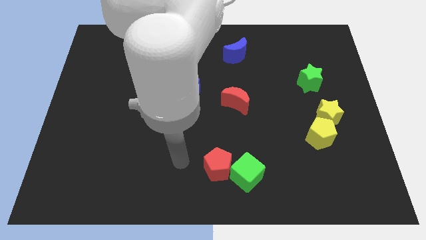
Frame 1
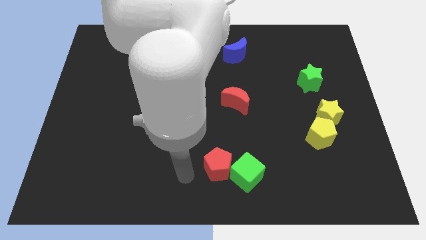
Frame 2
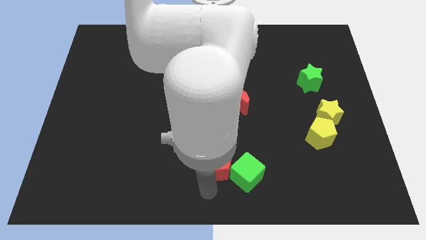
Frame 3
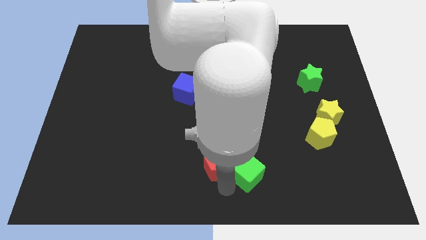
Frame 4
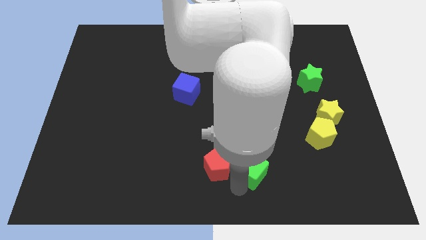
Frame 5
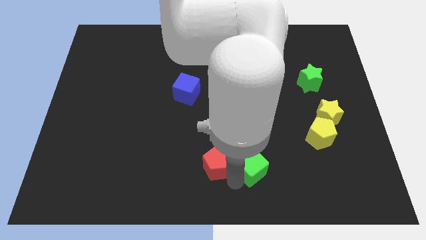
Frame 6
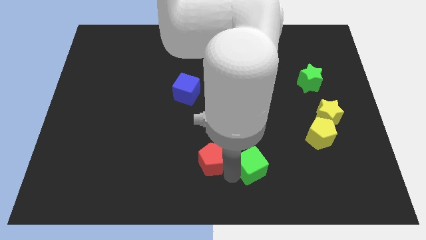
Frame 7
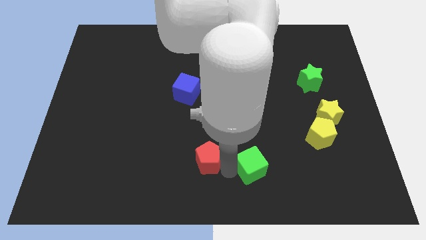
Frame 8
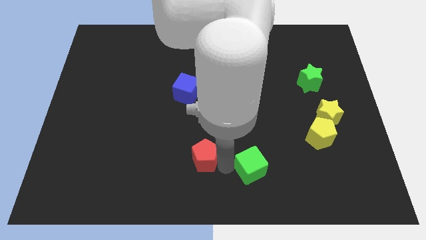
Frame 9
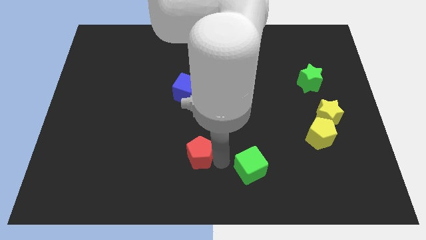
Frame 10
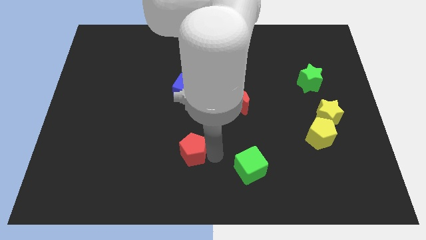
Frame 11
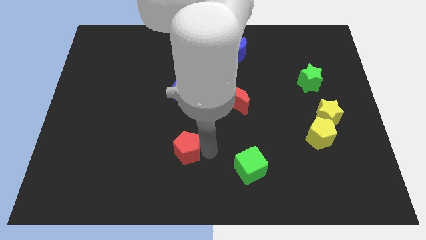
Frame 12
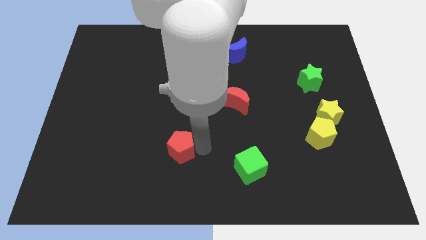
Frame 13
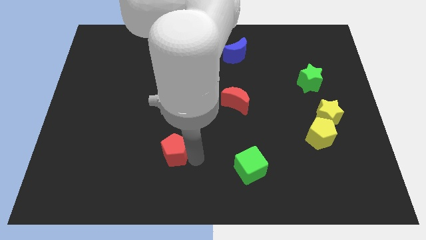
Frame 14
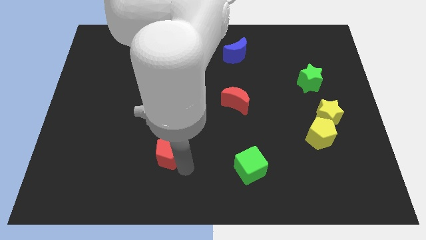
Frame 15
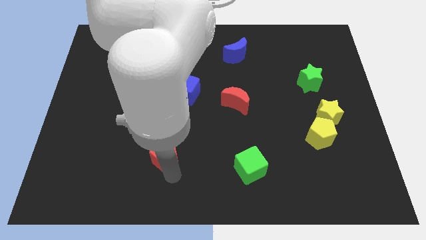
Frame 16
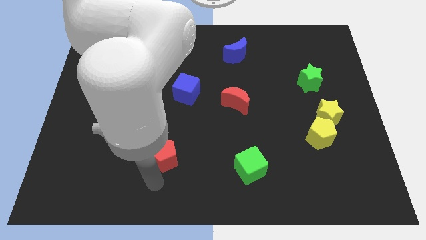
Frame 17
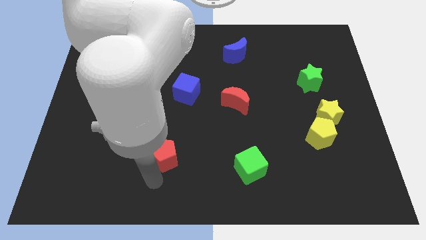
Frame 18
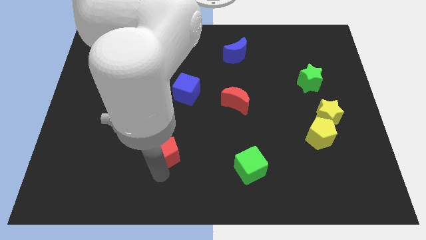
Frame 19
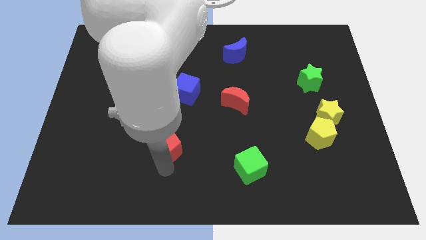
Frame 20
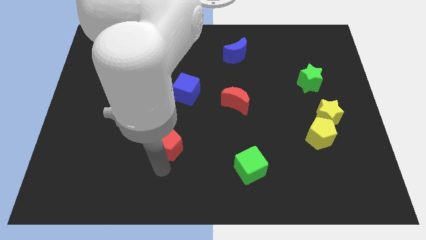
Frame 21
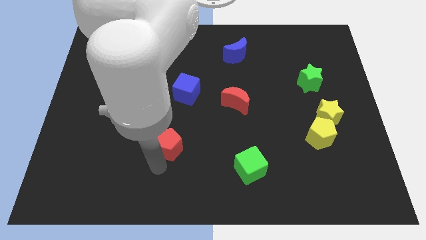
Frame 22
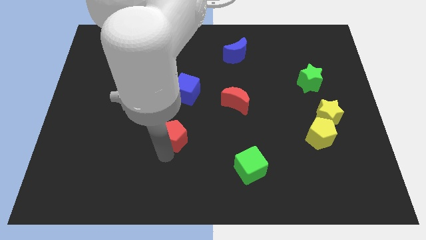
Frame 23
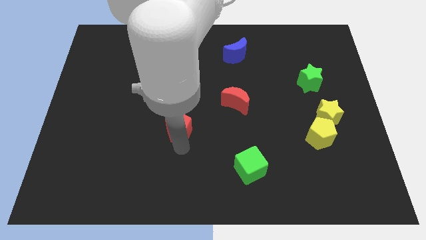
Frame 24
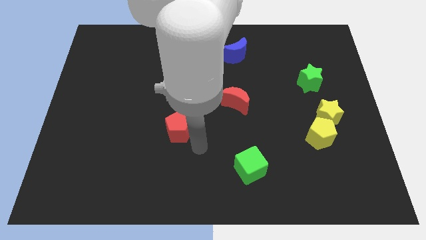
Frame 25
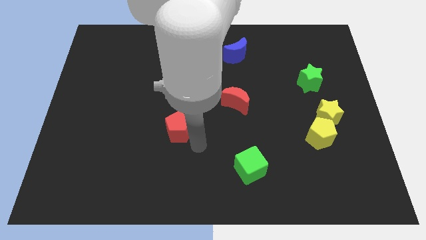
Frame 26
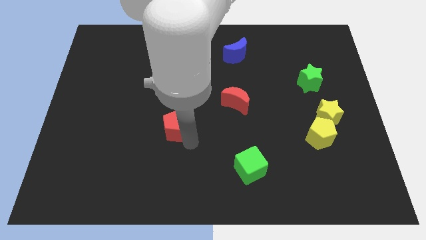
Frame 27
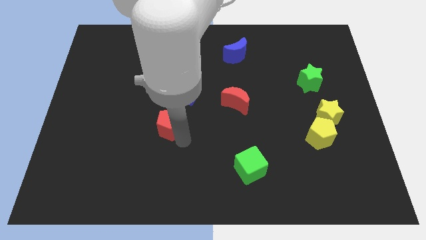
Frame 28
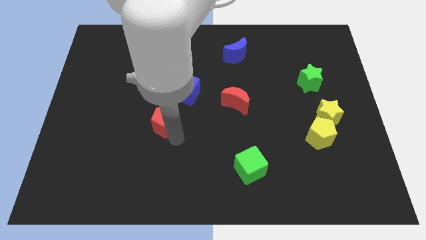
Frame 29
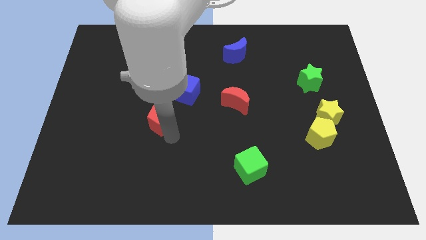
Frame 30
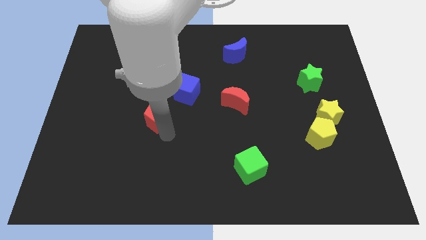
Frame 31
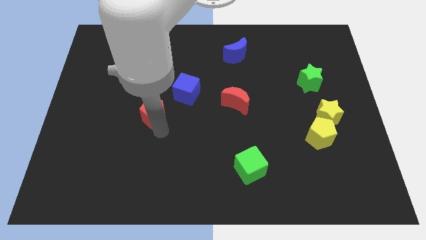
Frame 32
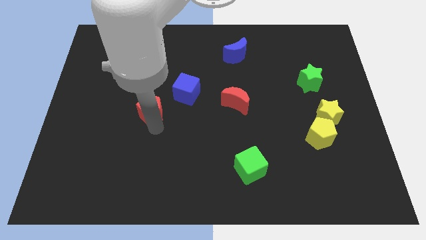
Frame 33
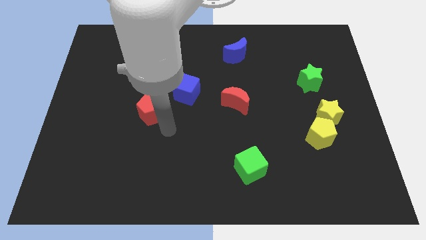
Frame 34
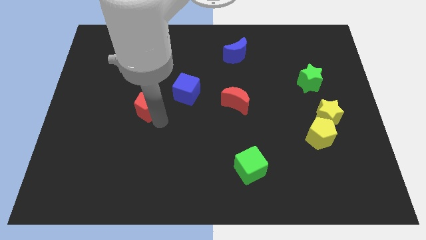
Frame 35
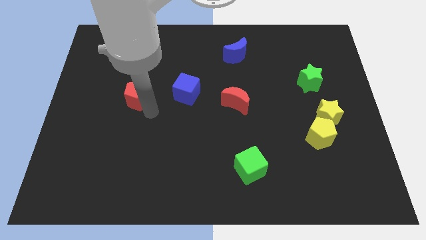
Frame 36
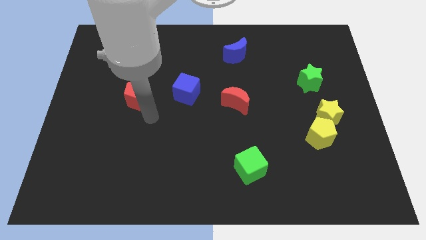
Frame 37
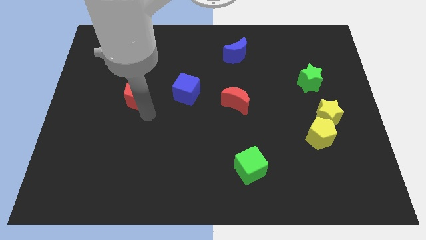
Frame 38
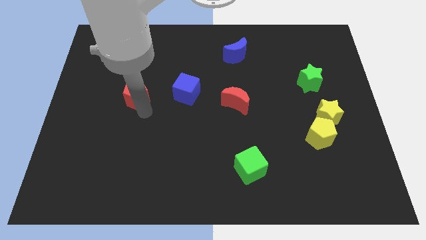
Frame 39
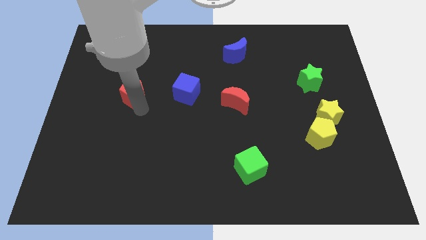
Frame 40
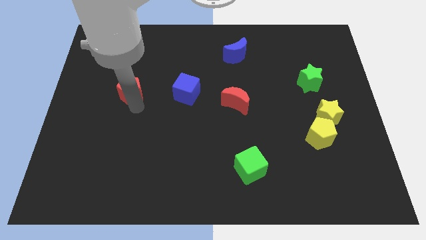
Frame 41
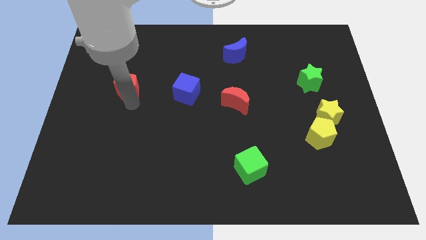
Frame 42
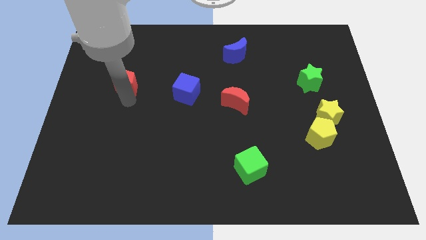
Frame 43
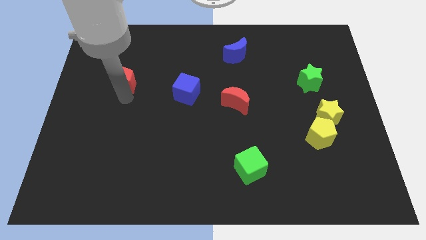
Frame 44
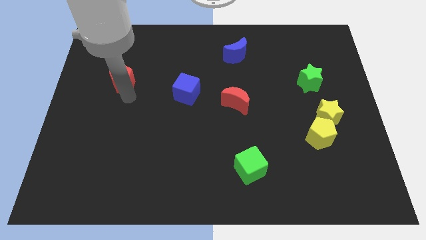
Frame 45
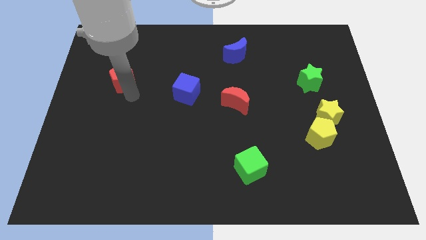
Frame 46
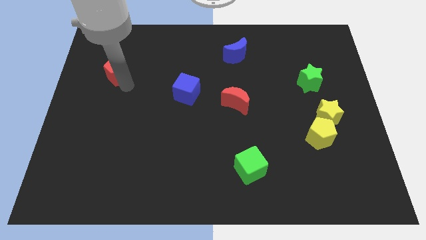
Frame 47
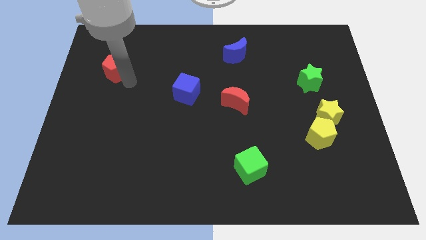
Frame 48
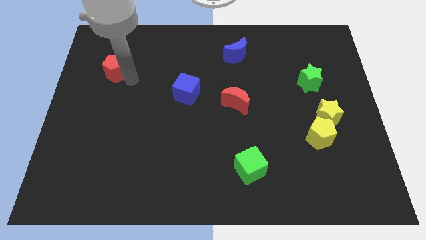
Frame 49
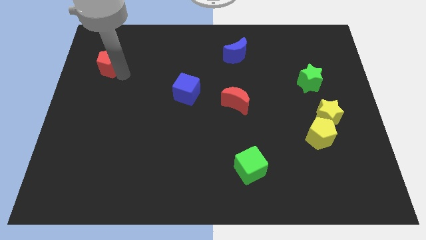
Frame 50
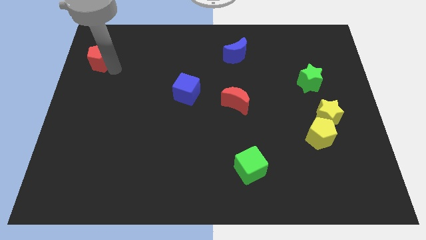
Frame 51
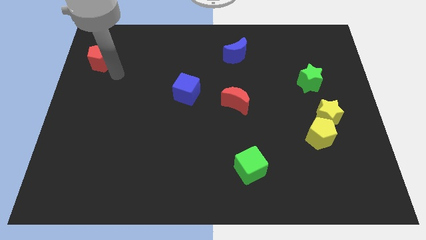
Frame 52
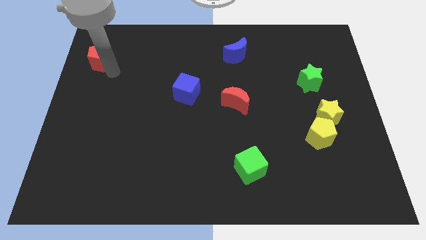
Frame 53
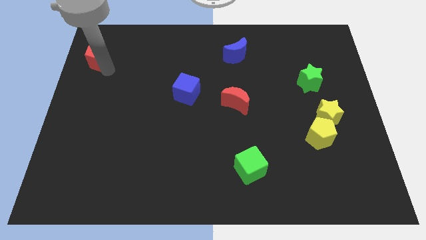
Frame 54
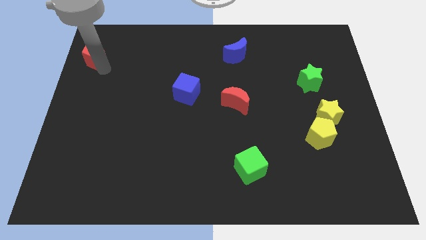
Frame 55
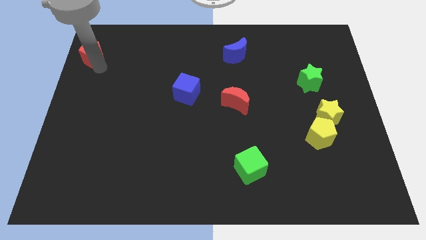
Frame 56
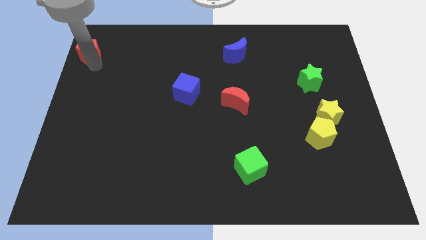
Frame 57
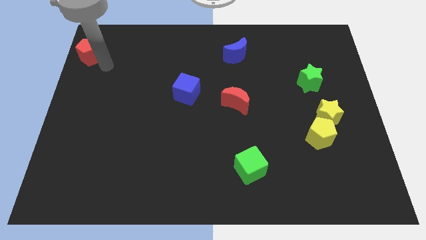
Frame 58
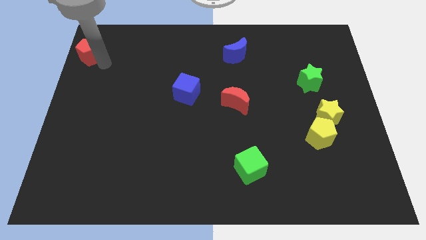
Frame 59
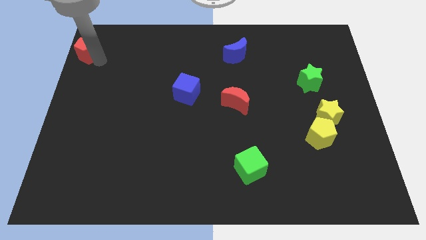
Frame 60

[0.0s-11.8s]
push the red pentagon to the top left of the board

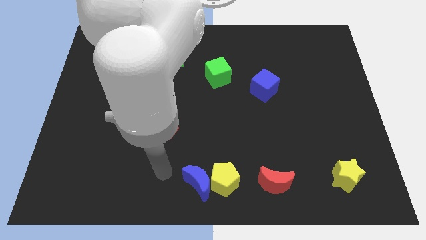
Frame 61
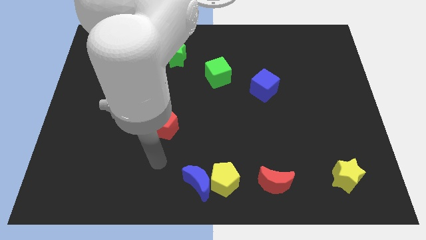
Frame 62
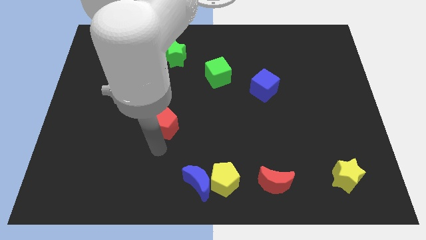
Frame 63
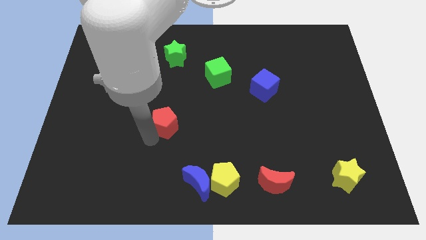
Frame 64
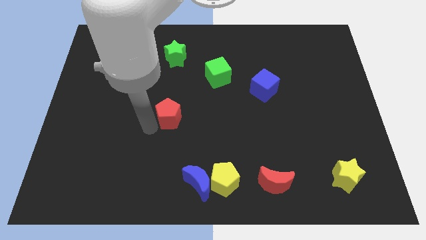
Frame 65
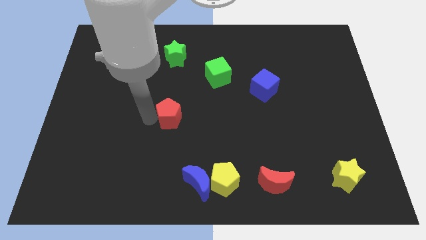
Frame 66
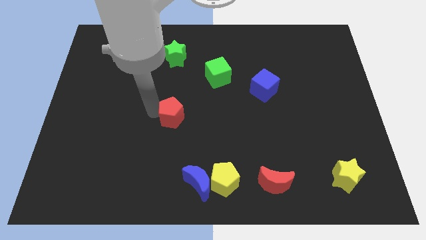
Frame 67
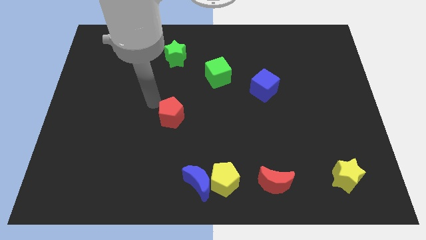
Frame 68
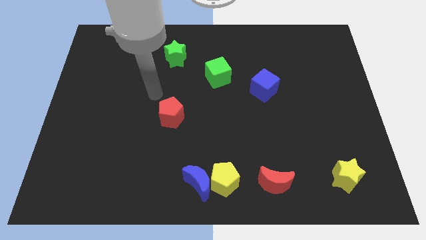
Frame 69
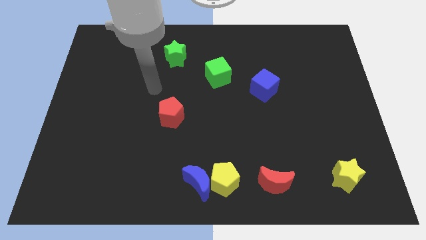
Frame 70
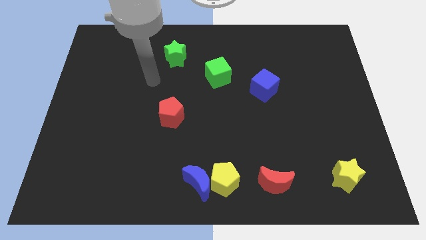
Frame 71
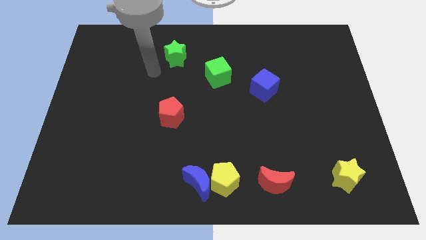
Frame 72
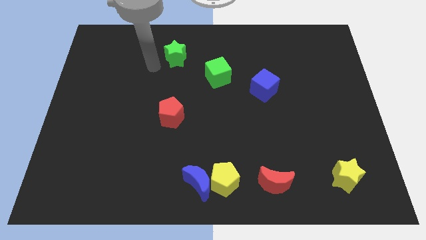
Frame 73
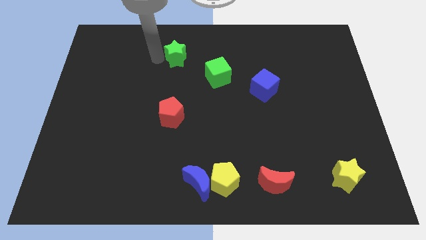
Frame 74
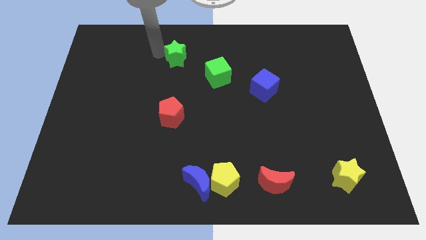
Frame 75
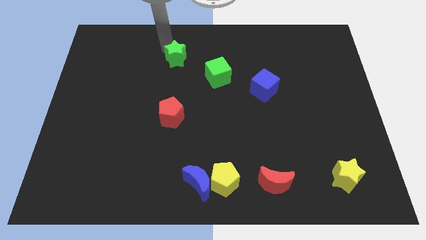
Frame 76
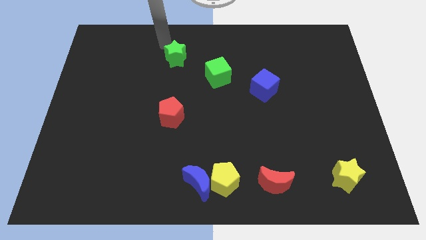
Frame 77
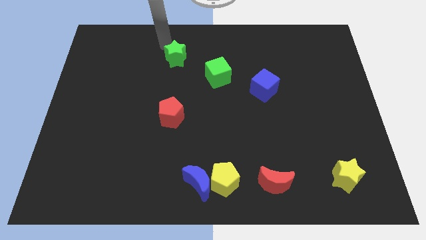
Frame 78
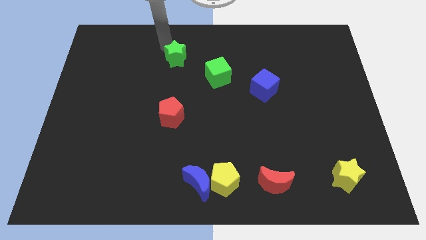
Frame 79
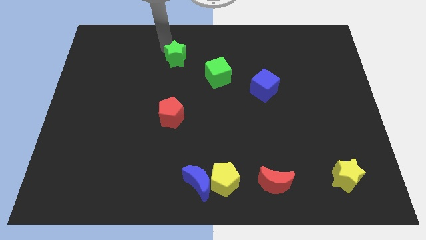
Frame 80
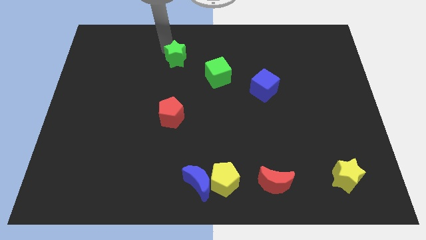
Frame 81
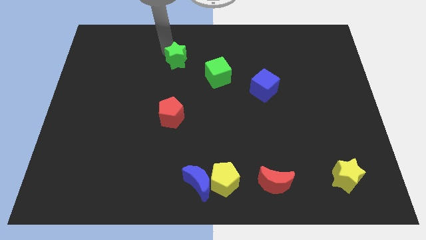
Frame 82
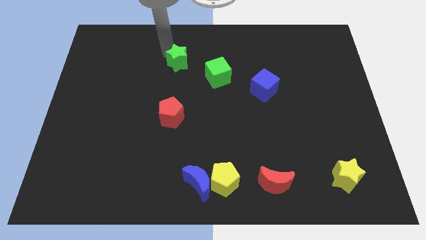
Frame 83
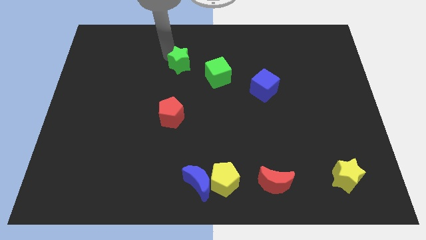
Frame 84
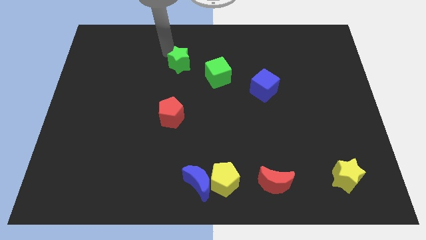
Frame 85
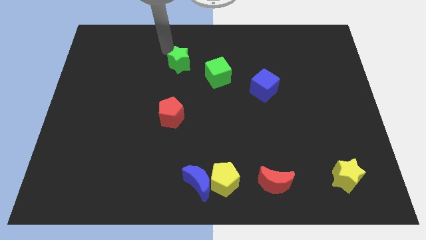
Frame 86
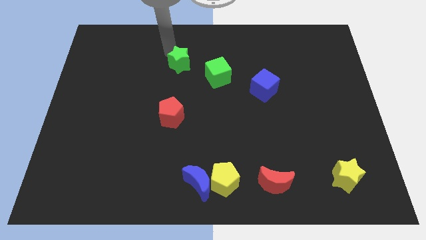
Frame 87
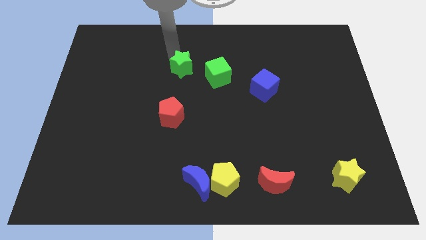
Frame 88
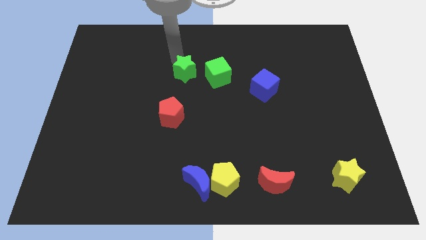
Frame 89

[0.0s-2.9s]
slide the green star to the middle of the board
